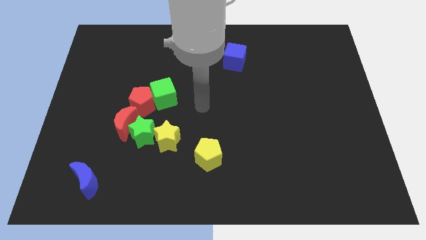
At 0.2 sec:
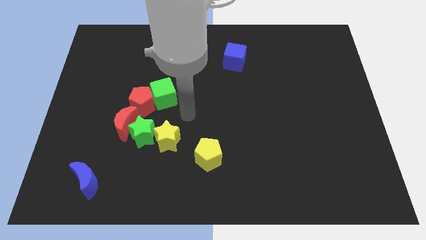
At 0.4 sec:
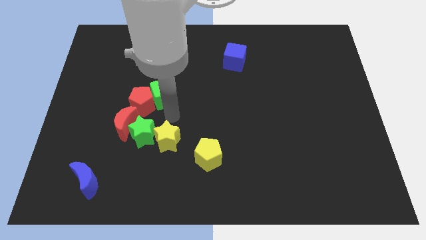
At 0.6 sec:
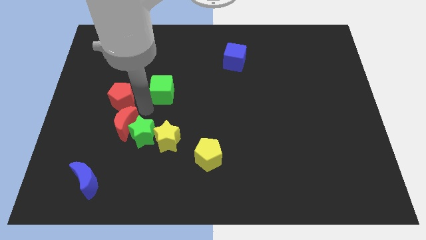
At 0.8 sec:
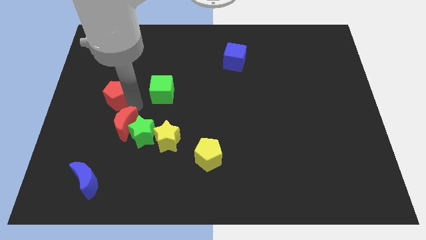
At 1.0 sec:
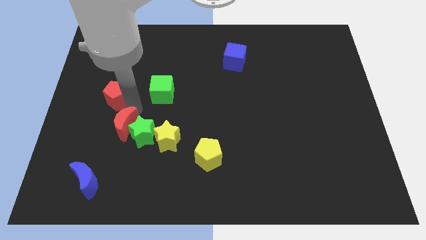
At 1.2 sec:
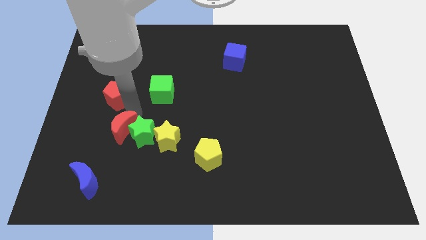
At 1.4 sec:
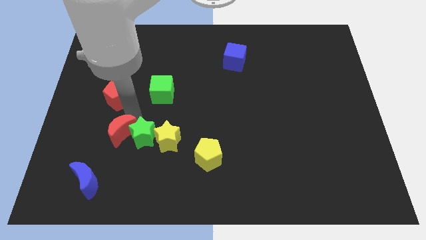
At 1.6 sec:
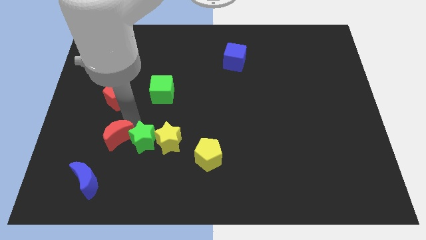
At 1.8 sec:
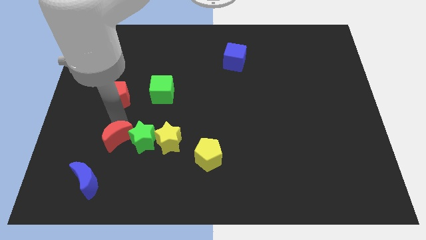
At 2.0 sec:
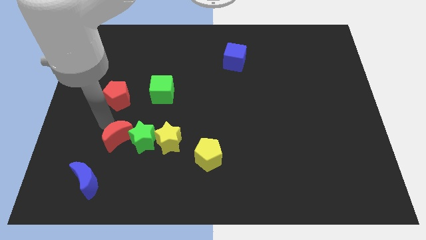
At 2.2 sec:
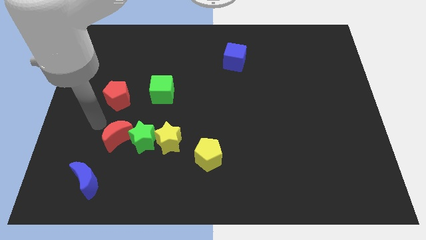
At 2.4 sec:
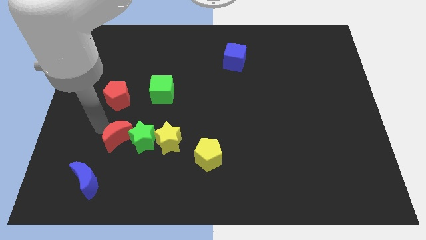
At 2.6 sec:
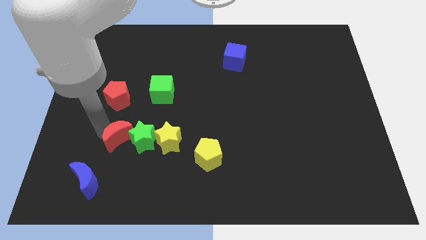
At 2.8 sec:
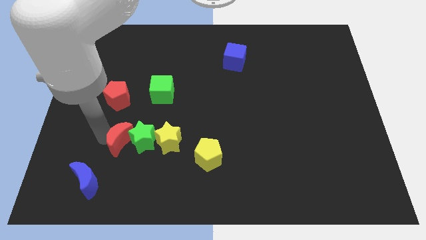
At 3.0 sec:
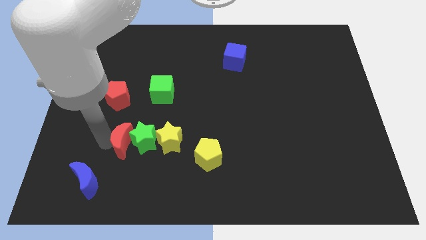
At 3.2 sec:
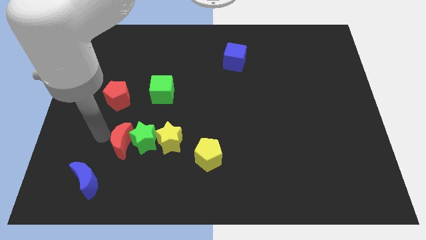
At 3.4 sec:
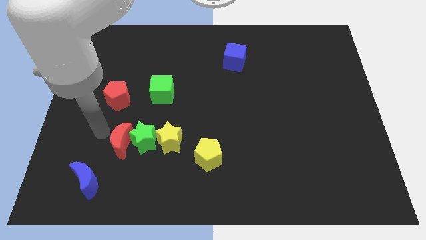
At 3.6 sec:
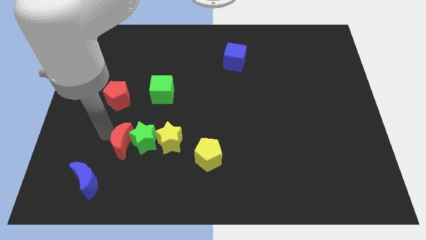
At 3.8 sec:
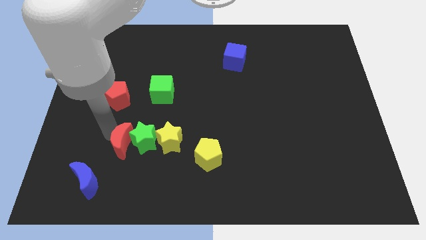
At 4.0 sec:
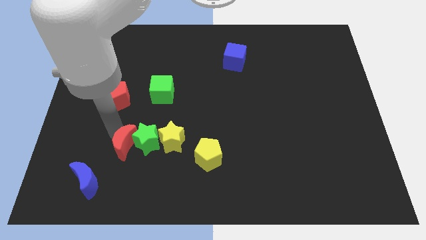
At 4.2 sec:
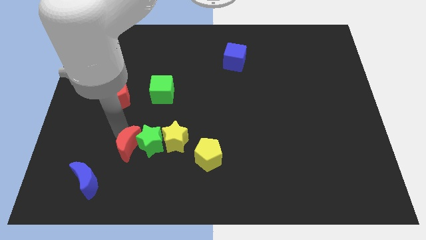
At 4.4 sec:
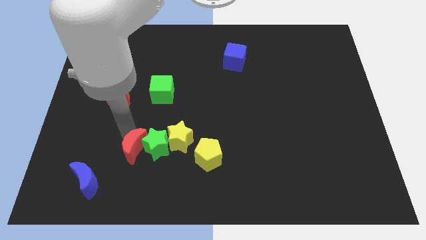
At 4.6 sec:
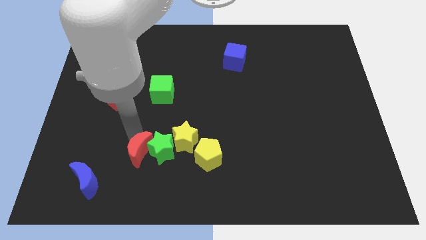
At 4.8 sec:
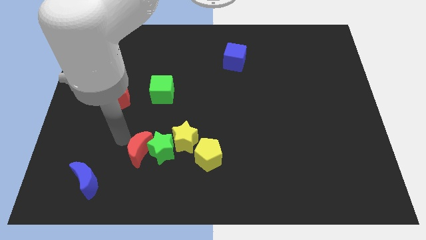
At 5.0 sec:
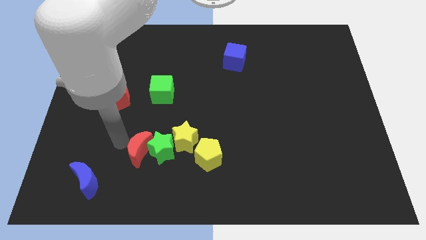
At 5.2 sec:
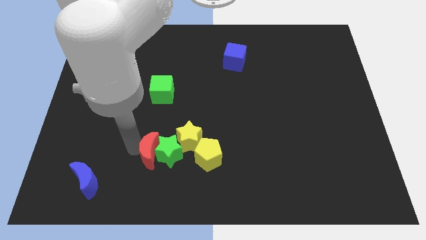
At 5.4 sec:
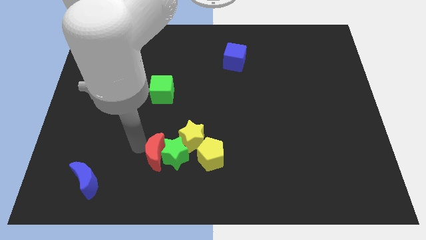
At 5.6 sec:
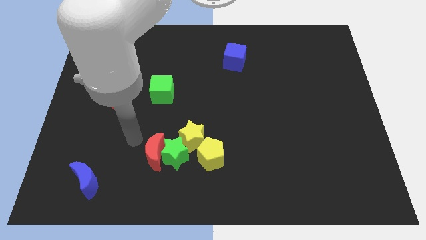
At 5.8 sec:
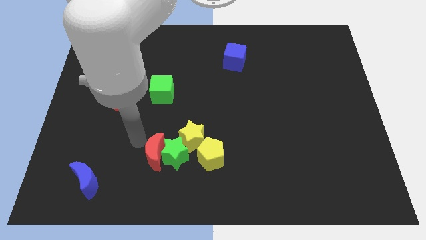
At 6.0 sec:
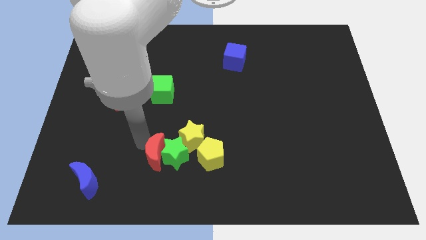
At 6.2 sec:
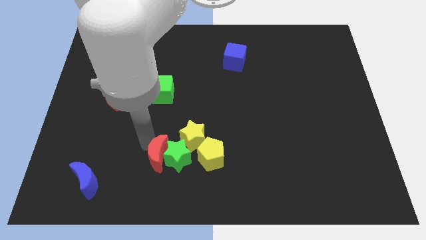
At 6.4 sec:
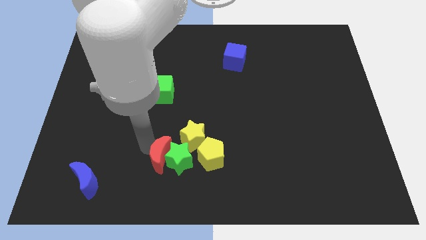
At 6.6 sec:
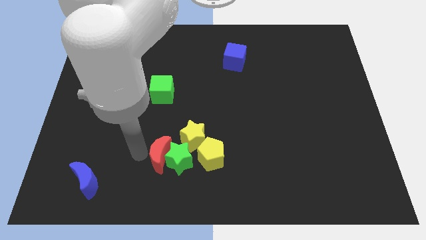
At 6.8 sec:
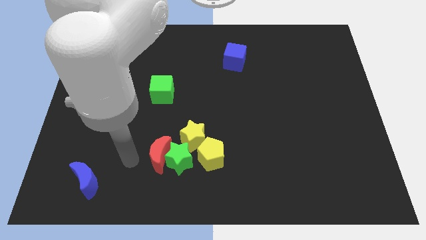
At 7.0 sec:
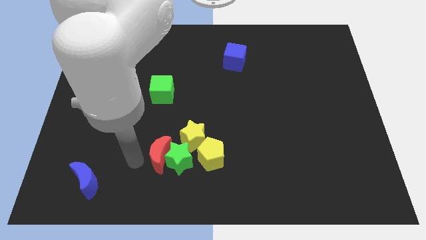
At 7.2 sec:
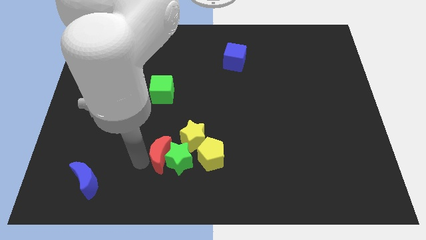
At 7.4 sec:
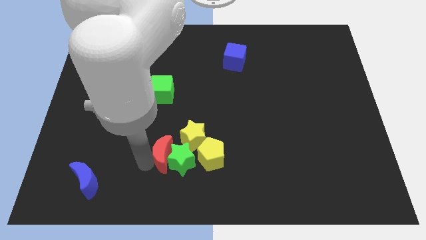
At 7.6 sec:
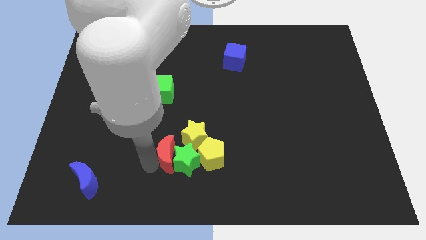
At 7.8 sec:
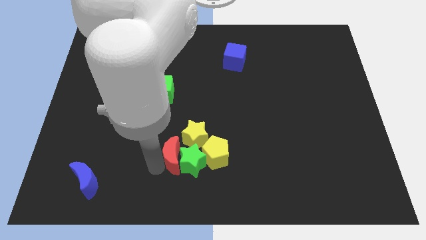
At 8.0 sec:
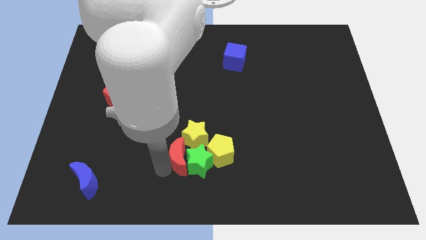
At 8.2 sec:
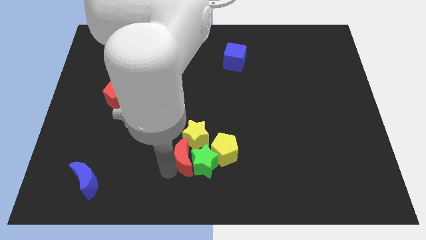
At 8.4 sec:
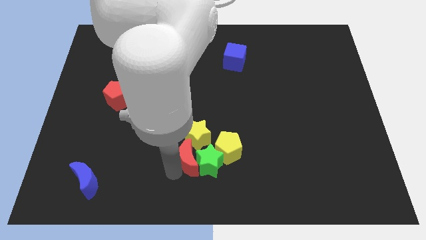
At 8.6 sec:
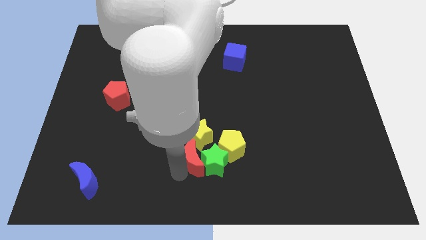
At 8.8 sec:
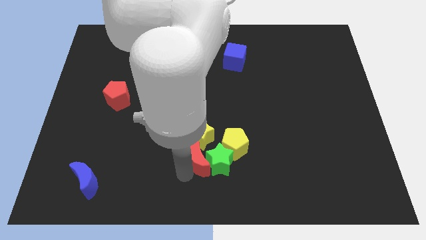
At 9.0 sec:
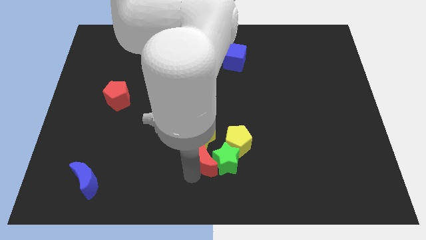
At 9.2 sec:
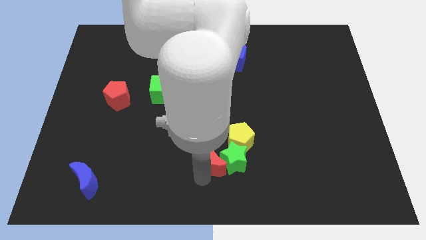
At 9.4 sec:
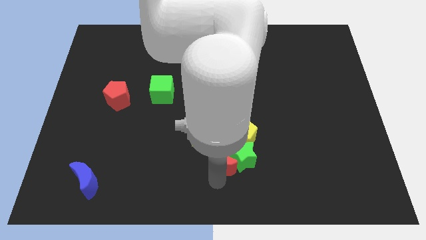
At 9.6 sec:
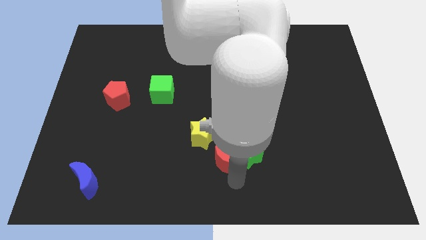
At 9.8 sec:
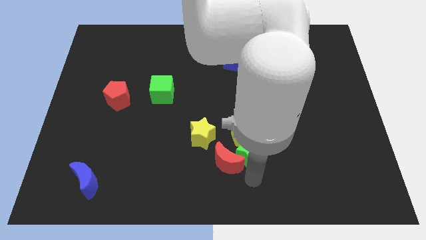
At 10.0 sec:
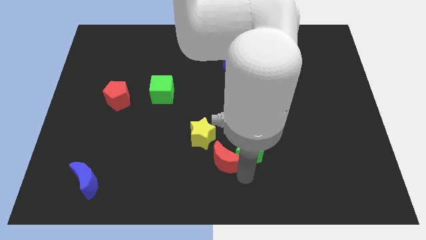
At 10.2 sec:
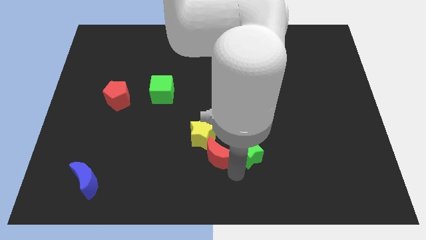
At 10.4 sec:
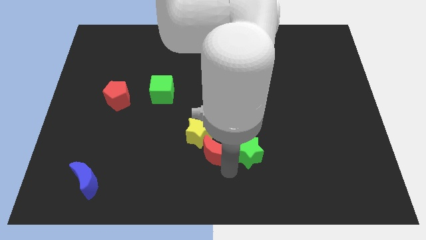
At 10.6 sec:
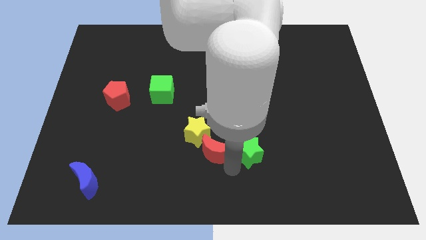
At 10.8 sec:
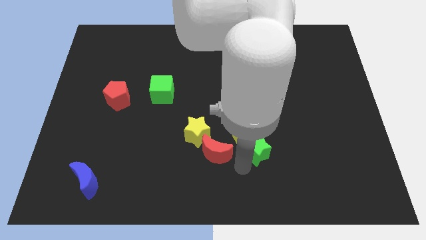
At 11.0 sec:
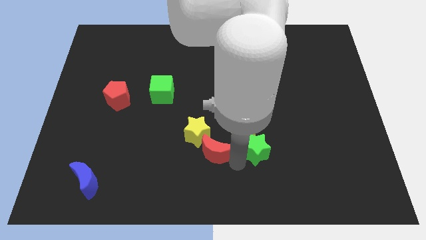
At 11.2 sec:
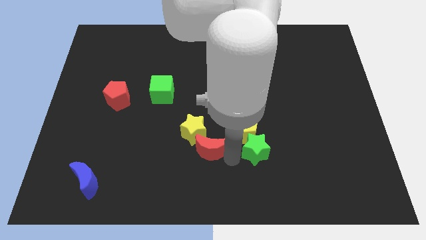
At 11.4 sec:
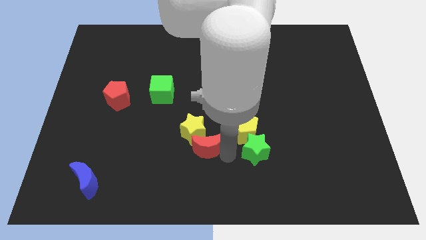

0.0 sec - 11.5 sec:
put the red moon to the right side of the yellow star
